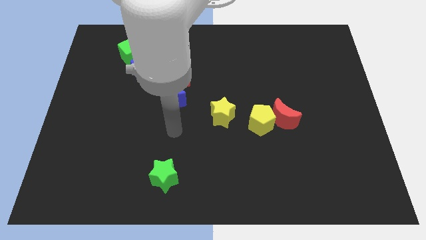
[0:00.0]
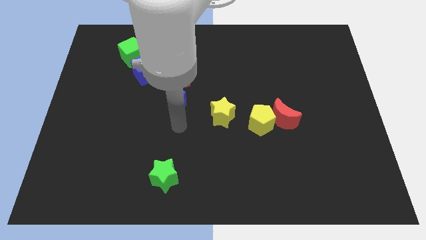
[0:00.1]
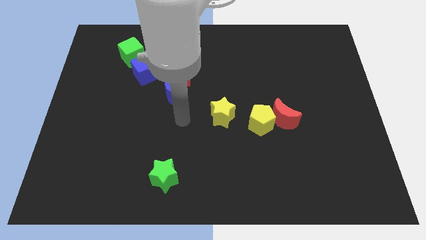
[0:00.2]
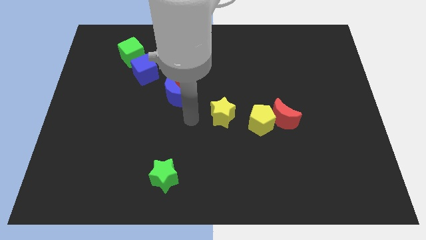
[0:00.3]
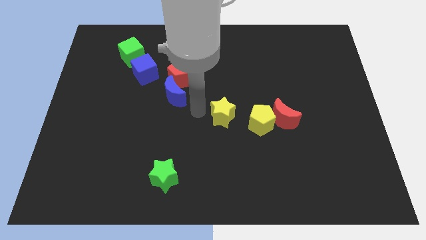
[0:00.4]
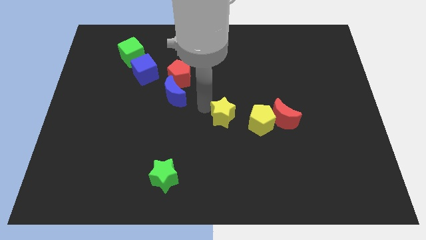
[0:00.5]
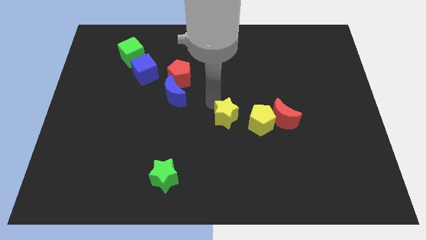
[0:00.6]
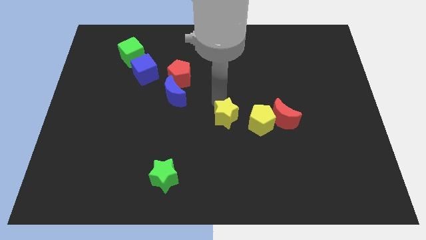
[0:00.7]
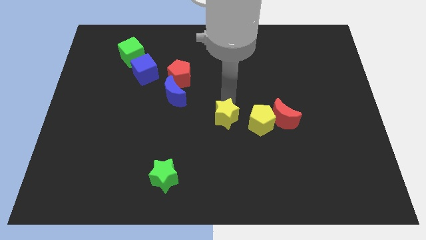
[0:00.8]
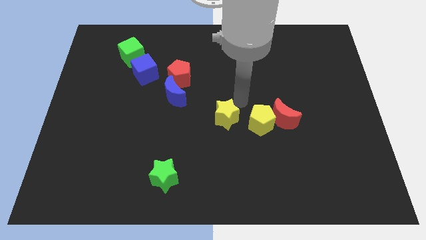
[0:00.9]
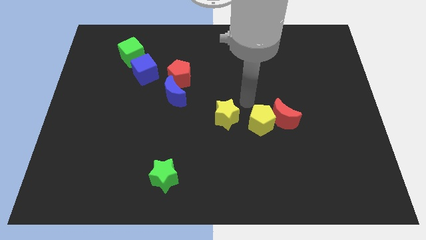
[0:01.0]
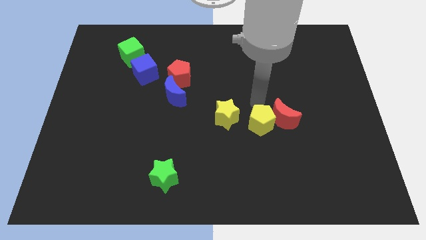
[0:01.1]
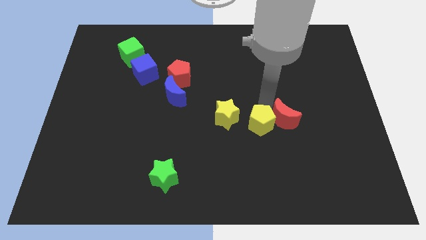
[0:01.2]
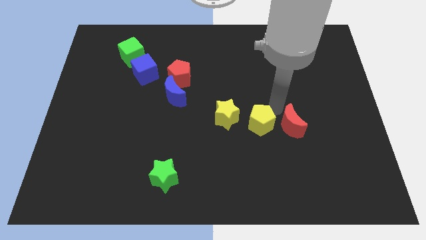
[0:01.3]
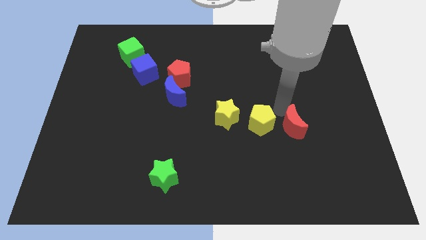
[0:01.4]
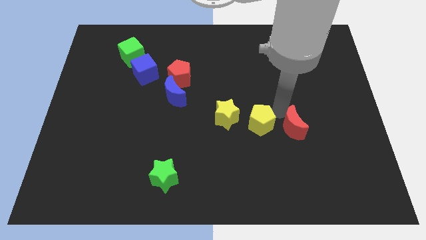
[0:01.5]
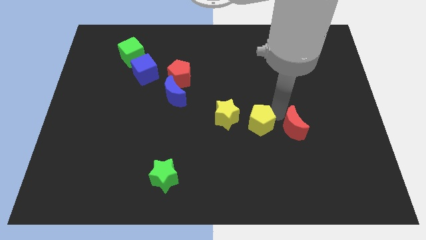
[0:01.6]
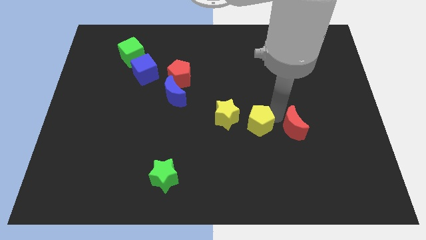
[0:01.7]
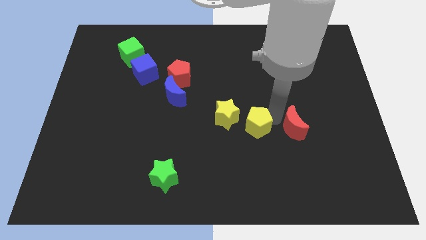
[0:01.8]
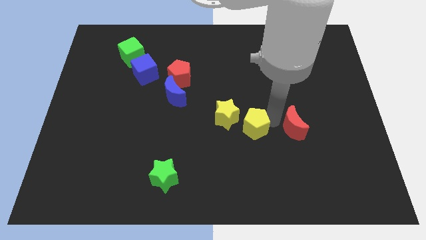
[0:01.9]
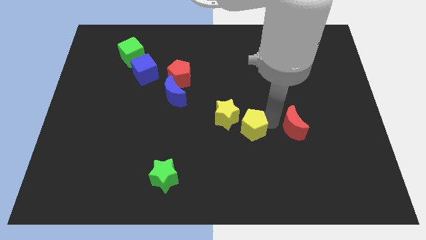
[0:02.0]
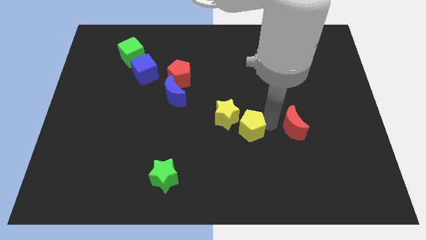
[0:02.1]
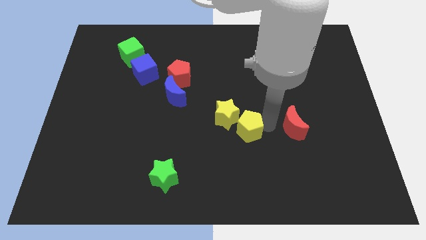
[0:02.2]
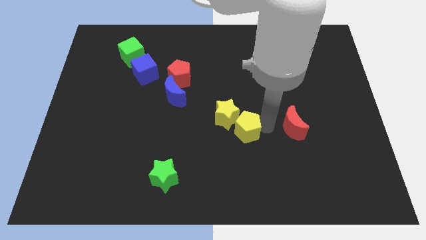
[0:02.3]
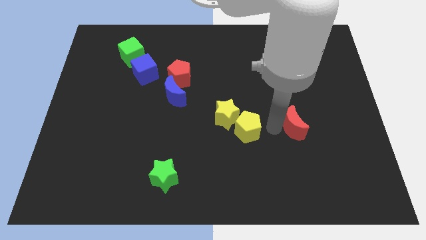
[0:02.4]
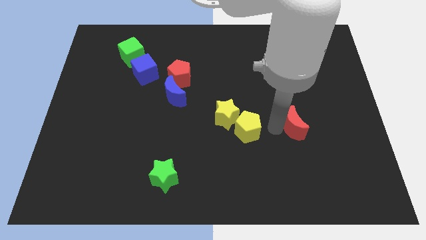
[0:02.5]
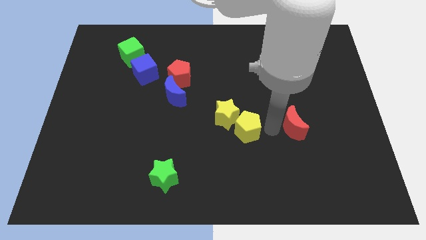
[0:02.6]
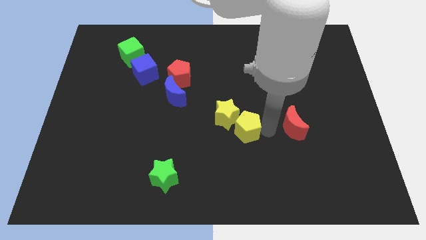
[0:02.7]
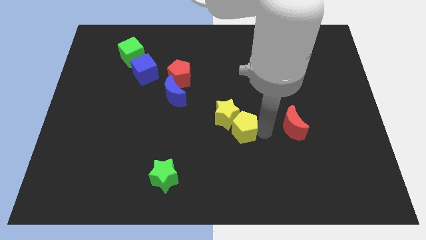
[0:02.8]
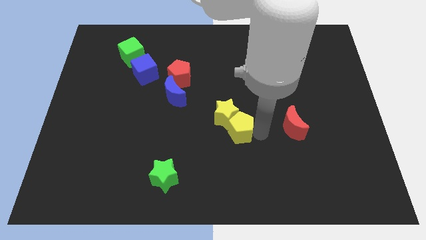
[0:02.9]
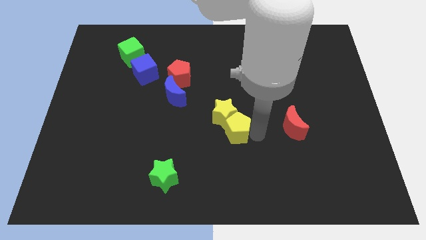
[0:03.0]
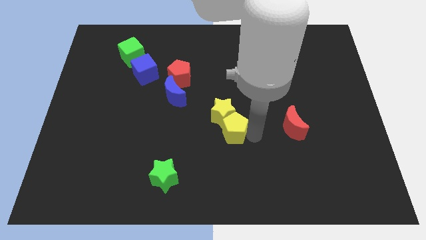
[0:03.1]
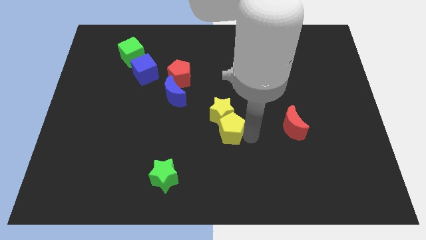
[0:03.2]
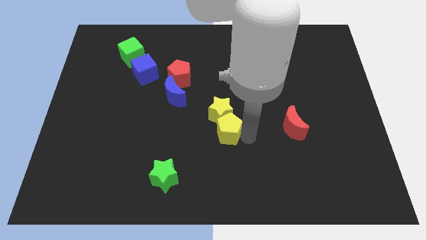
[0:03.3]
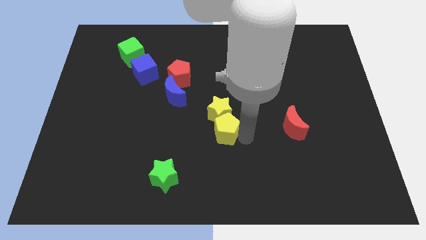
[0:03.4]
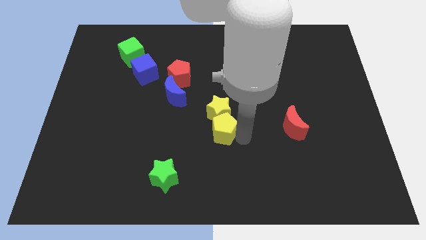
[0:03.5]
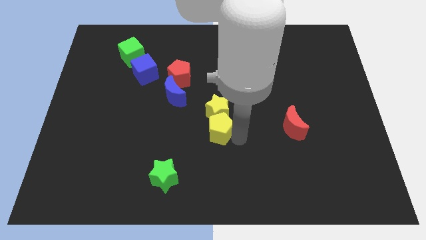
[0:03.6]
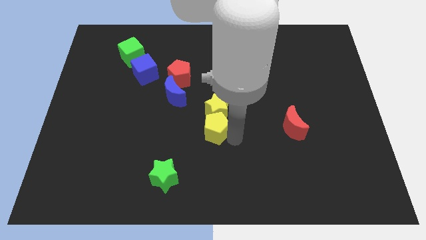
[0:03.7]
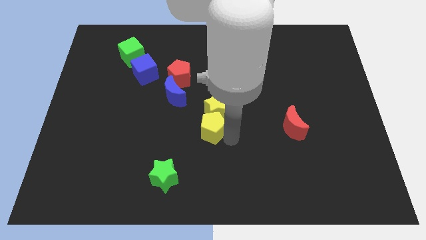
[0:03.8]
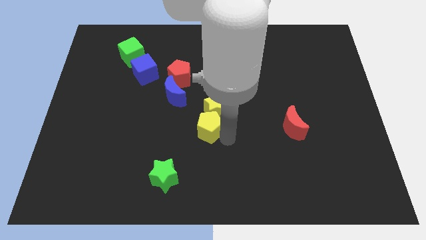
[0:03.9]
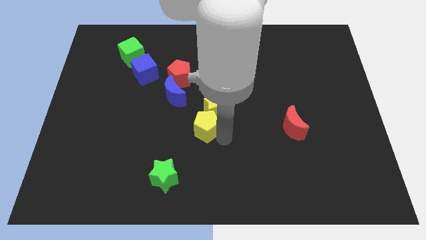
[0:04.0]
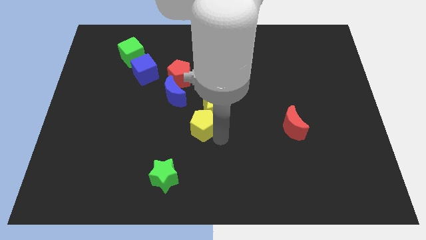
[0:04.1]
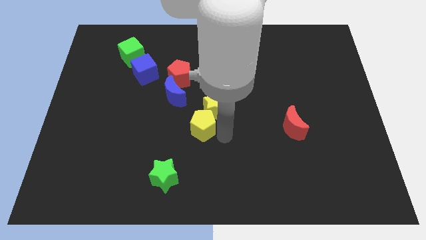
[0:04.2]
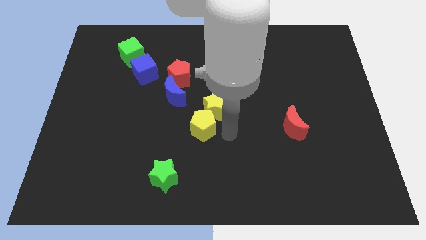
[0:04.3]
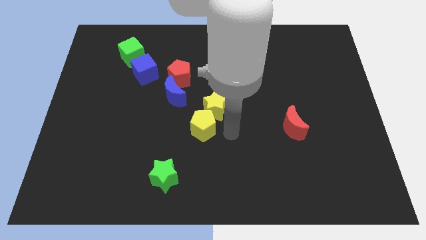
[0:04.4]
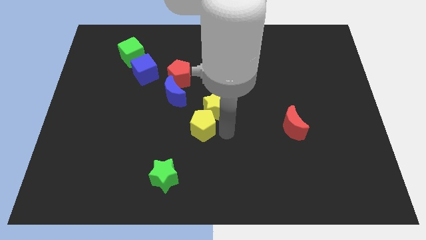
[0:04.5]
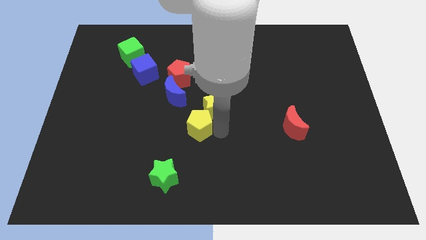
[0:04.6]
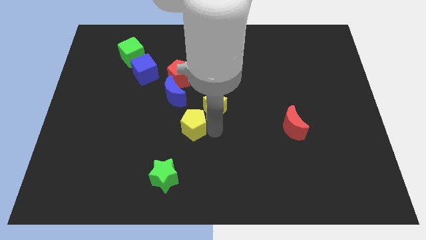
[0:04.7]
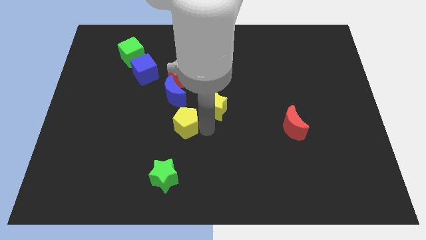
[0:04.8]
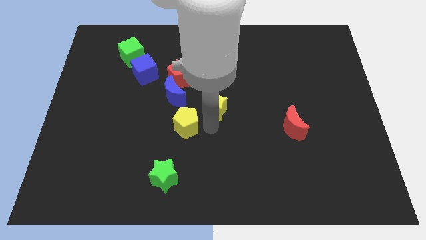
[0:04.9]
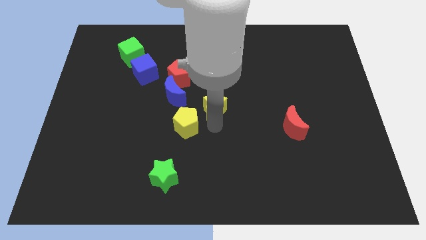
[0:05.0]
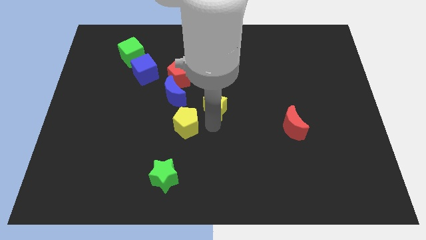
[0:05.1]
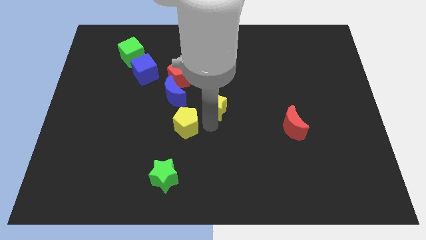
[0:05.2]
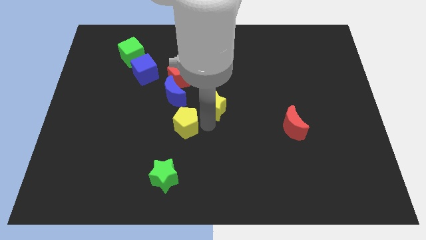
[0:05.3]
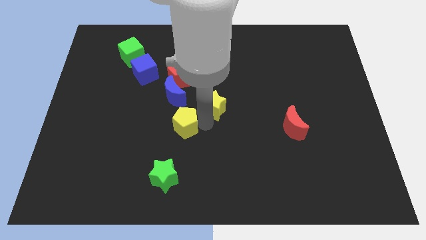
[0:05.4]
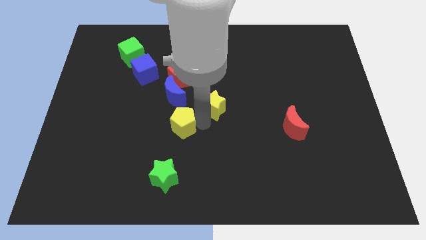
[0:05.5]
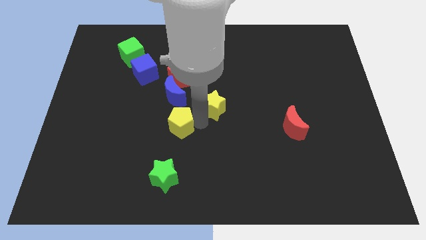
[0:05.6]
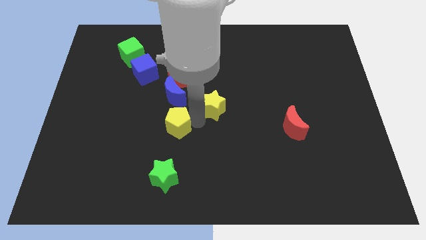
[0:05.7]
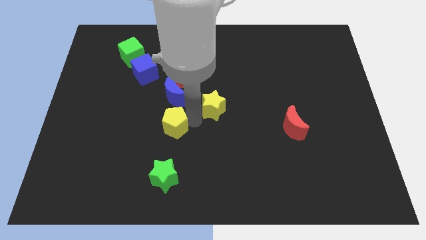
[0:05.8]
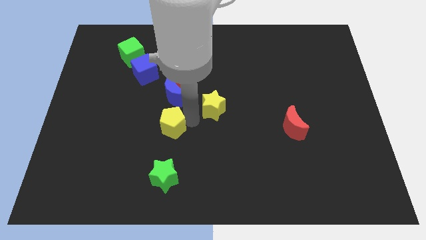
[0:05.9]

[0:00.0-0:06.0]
push the yellow pentagon to the left

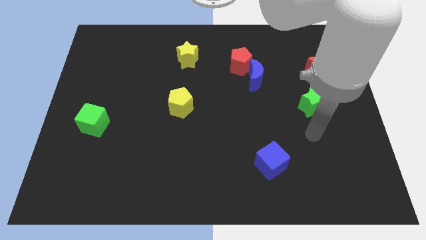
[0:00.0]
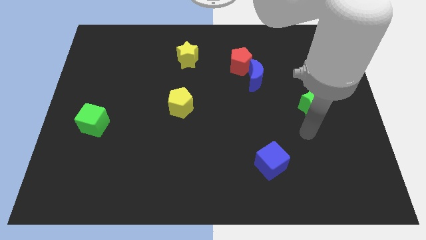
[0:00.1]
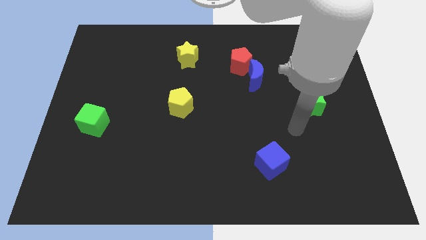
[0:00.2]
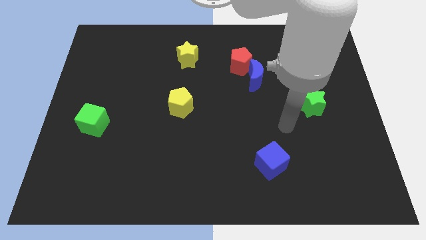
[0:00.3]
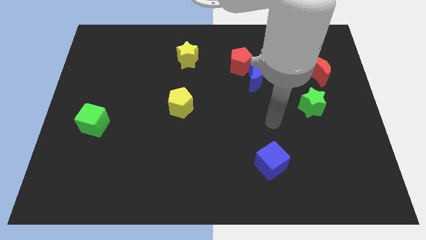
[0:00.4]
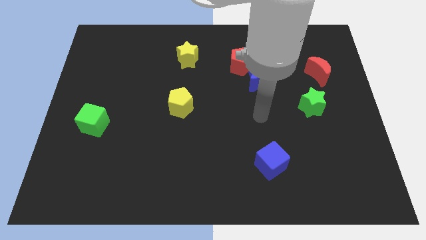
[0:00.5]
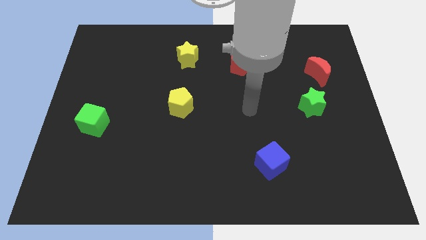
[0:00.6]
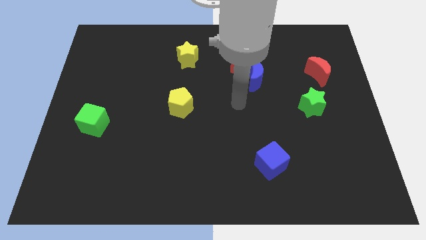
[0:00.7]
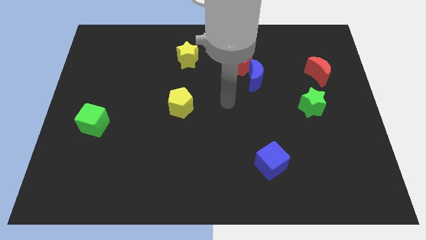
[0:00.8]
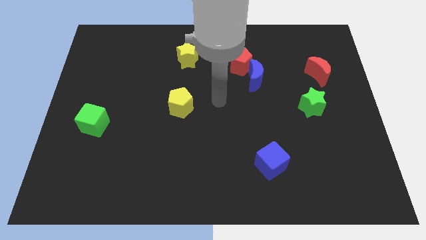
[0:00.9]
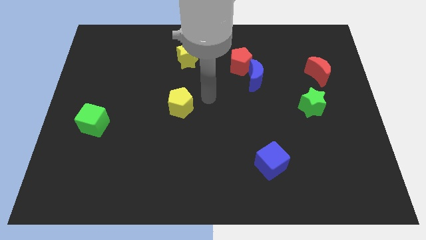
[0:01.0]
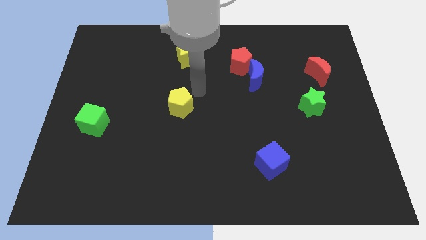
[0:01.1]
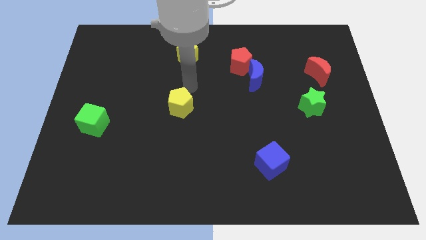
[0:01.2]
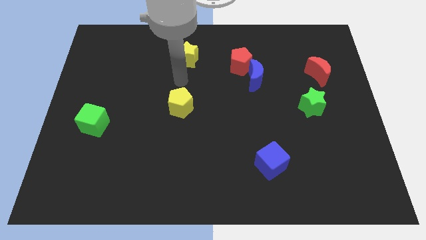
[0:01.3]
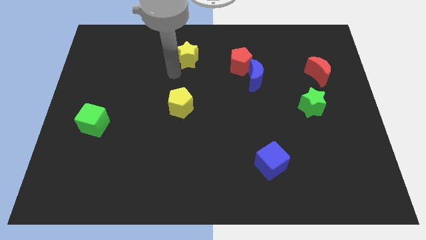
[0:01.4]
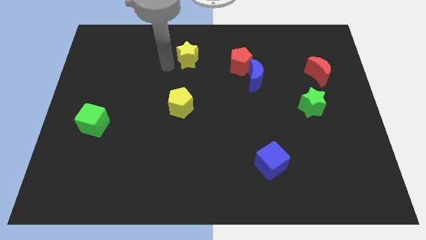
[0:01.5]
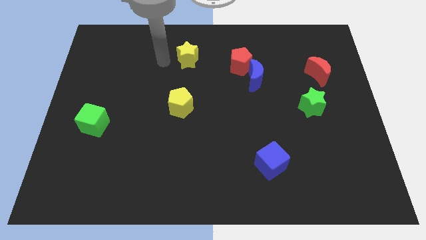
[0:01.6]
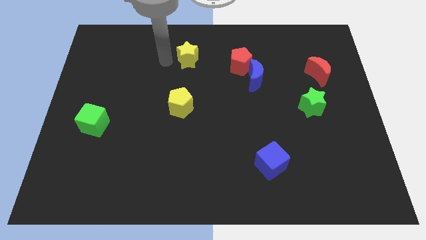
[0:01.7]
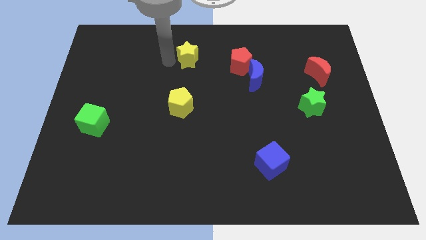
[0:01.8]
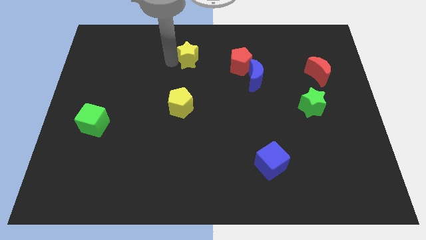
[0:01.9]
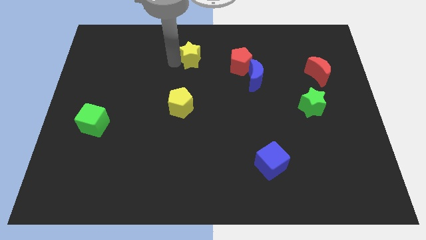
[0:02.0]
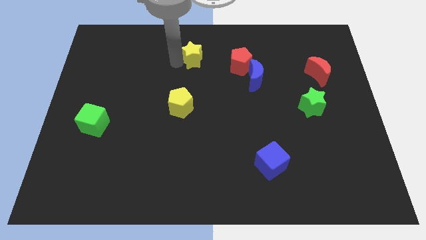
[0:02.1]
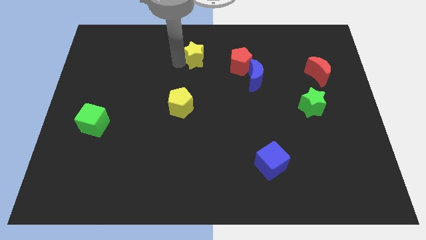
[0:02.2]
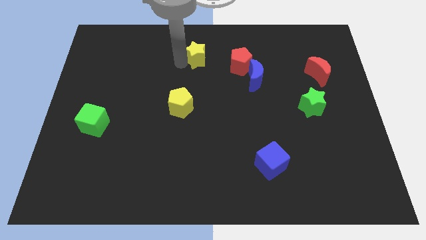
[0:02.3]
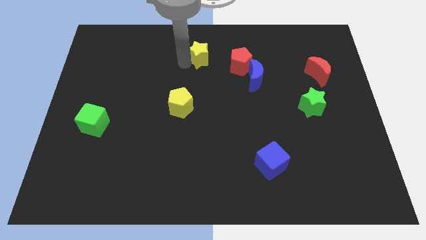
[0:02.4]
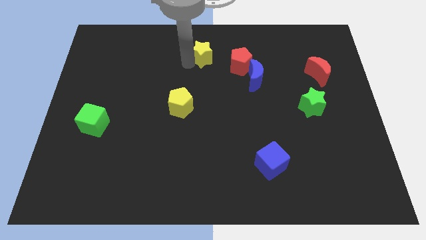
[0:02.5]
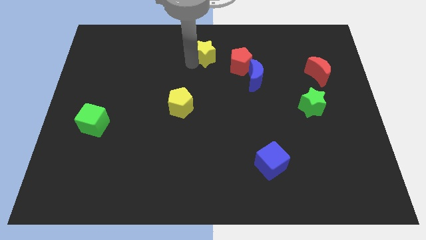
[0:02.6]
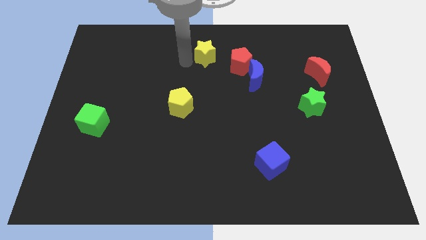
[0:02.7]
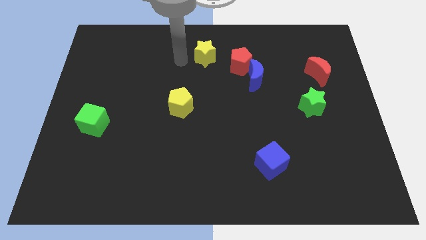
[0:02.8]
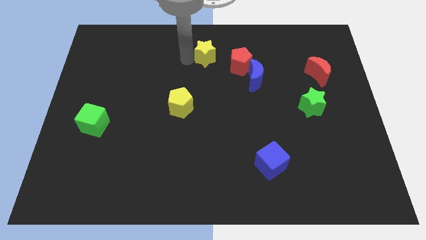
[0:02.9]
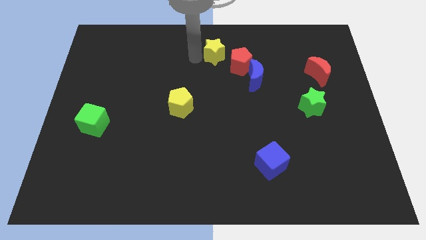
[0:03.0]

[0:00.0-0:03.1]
slightly slide the yellow star to the right
